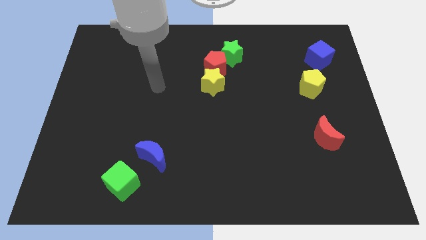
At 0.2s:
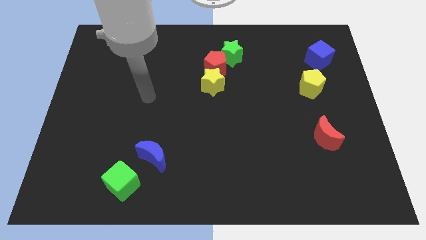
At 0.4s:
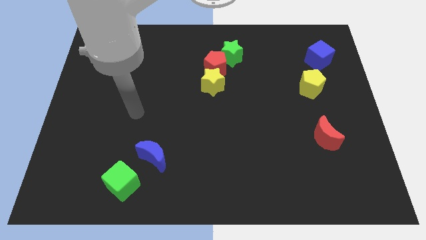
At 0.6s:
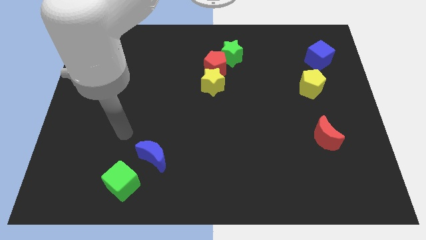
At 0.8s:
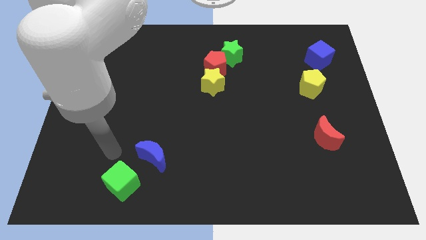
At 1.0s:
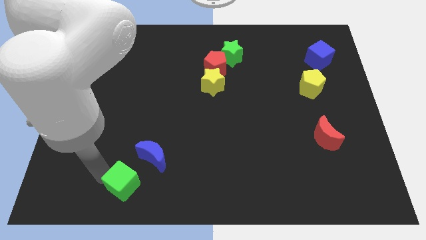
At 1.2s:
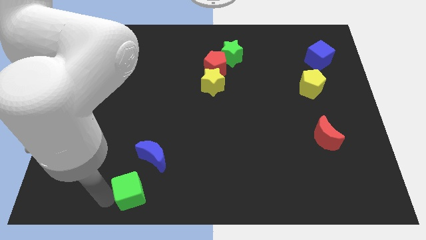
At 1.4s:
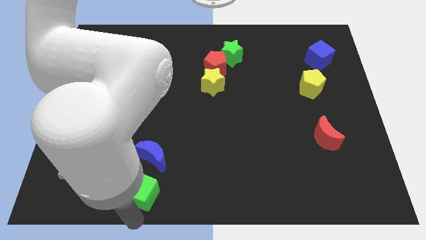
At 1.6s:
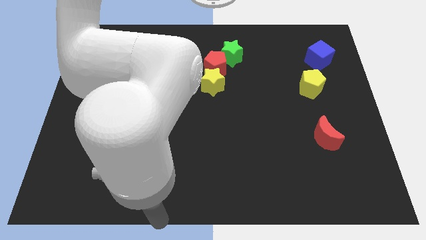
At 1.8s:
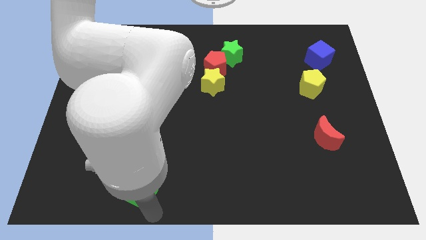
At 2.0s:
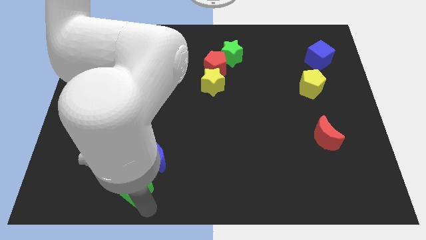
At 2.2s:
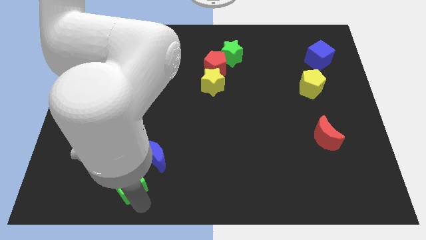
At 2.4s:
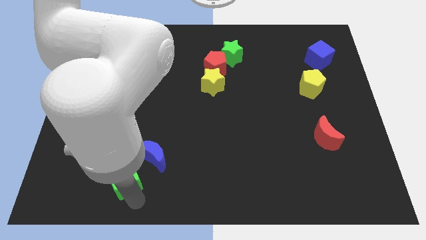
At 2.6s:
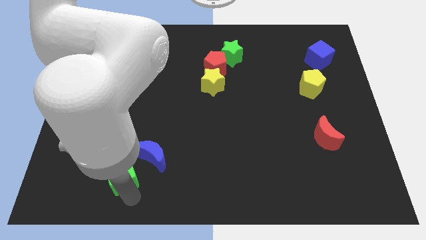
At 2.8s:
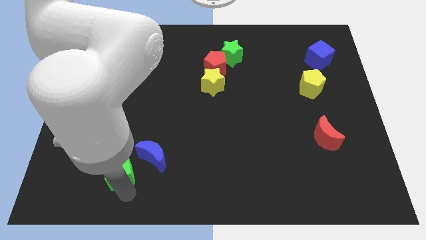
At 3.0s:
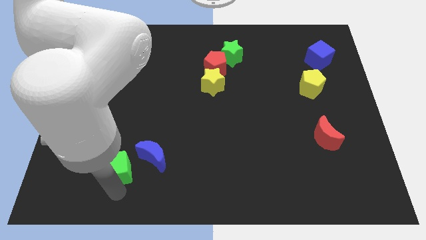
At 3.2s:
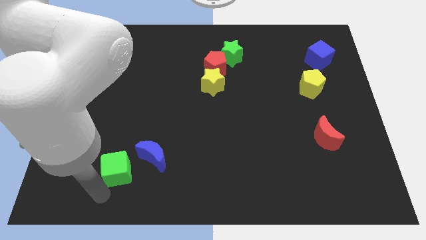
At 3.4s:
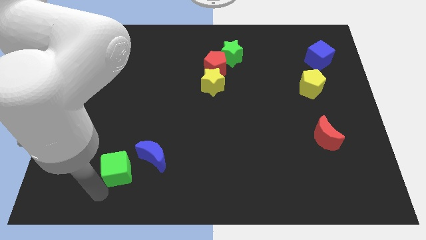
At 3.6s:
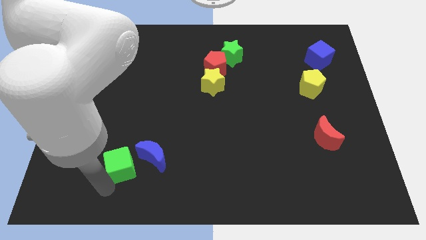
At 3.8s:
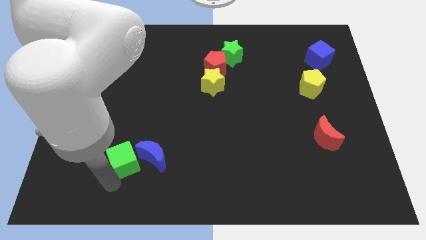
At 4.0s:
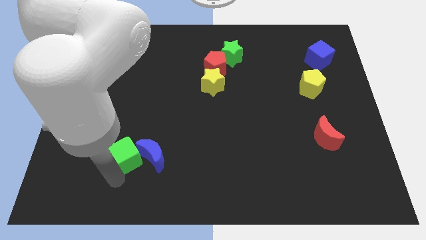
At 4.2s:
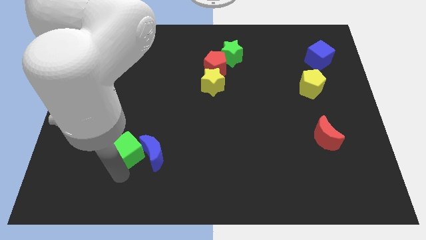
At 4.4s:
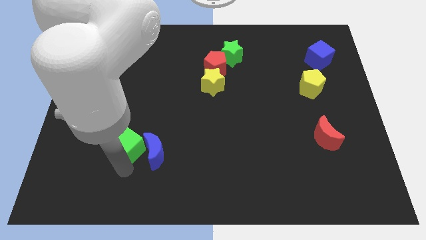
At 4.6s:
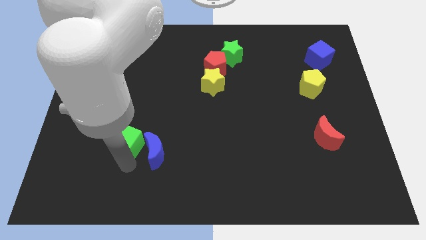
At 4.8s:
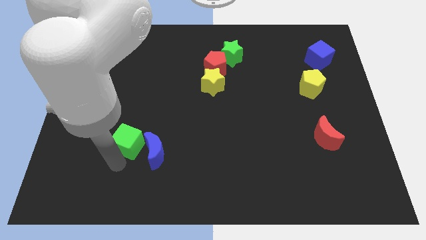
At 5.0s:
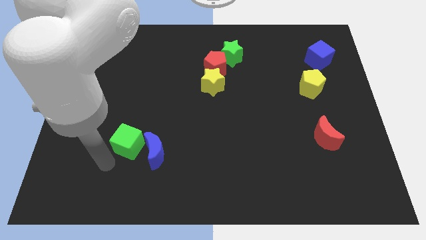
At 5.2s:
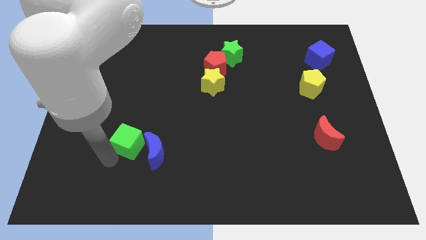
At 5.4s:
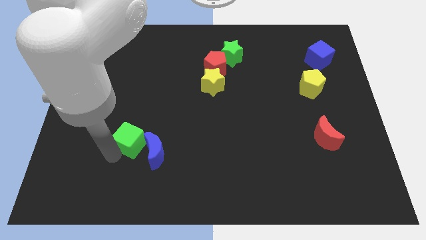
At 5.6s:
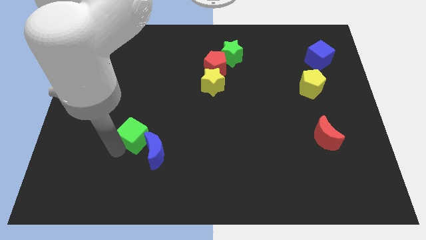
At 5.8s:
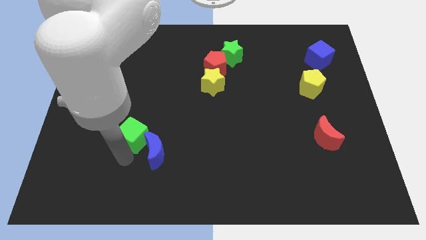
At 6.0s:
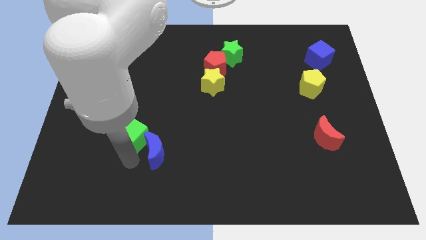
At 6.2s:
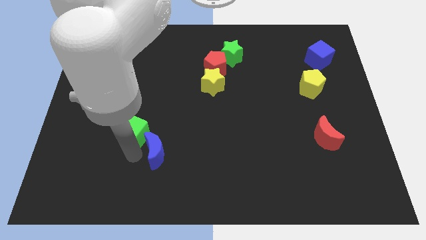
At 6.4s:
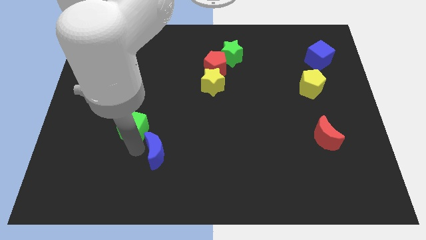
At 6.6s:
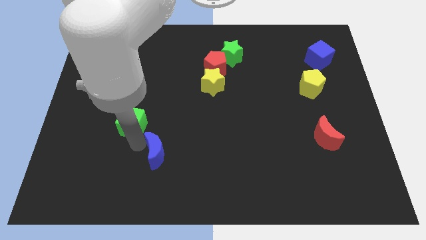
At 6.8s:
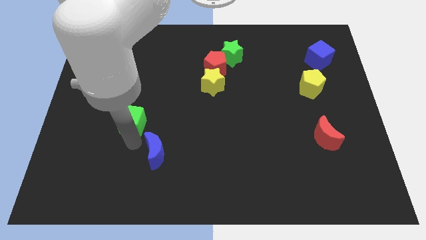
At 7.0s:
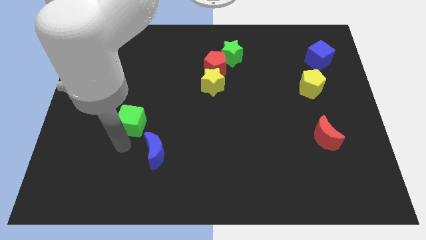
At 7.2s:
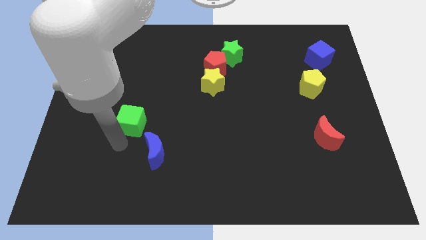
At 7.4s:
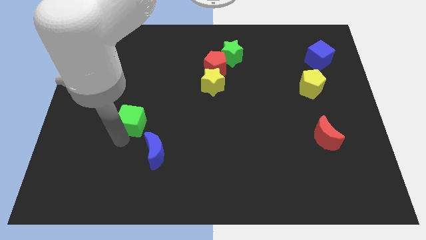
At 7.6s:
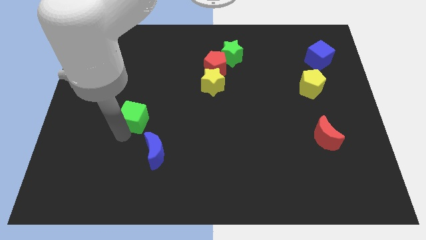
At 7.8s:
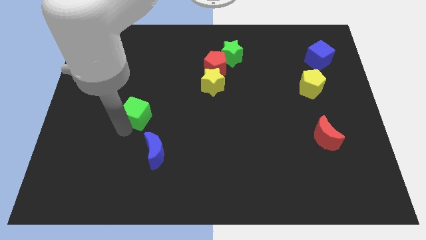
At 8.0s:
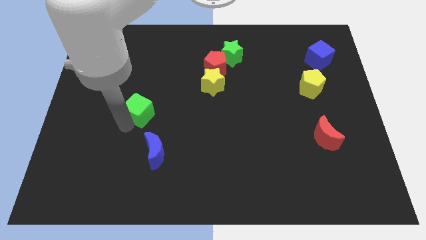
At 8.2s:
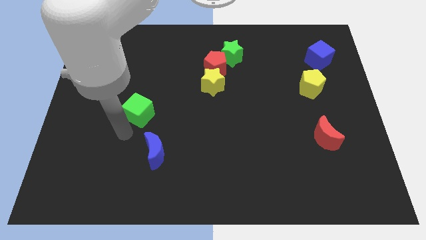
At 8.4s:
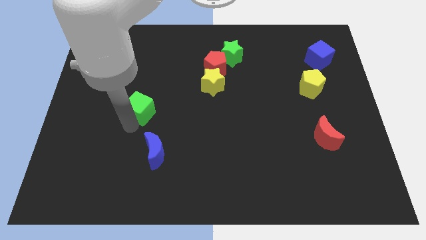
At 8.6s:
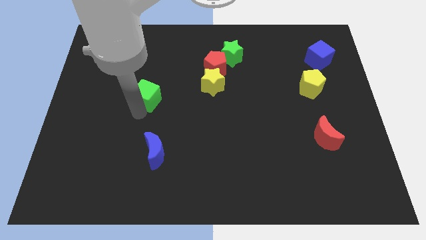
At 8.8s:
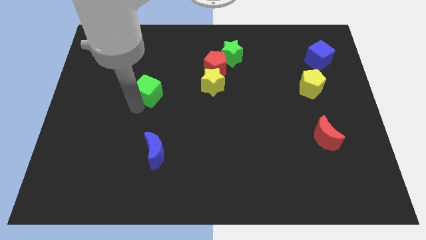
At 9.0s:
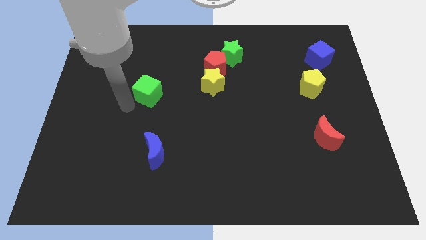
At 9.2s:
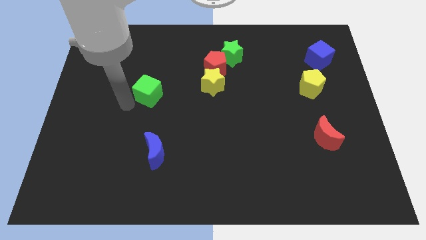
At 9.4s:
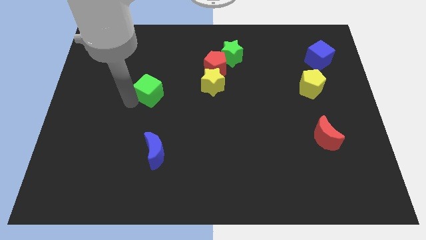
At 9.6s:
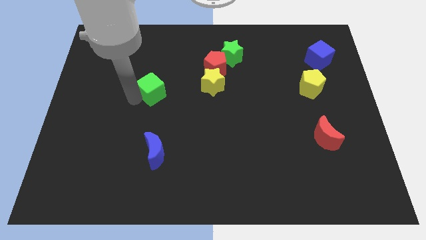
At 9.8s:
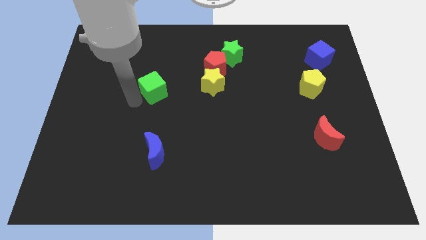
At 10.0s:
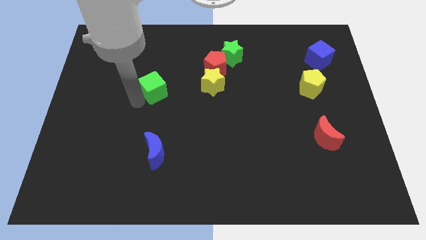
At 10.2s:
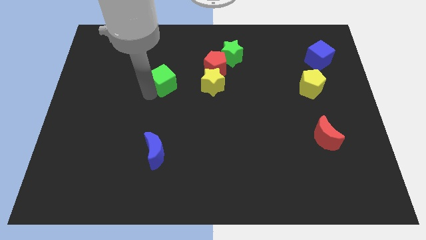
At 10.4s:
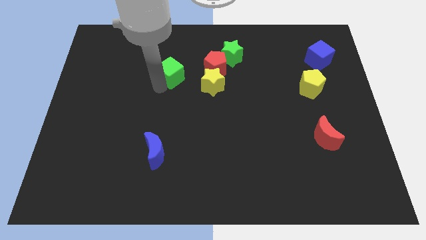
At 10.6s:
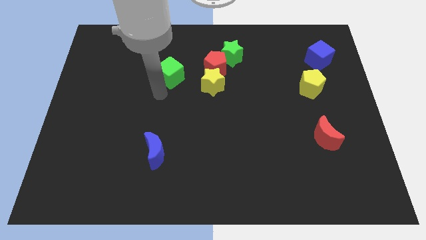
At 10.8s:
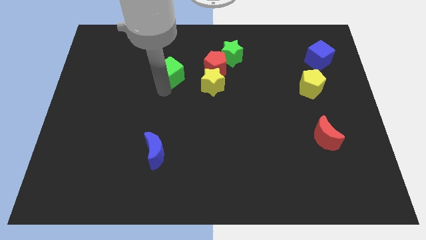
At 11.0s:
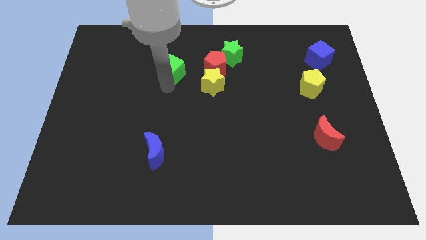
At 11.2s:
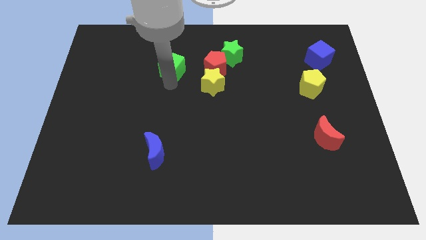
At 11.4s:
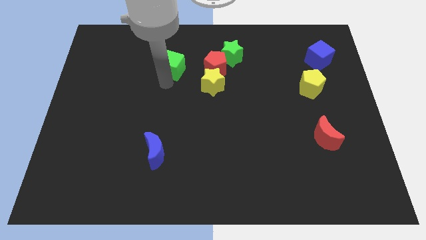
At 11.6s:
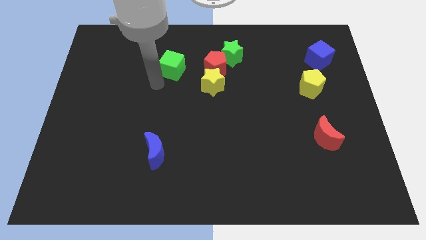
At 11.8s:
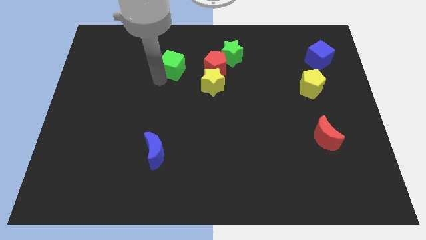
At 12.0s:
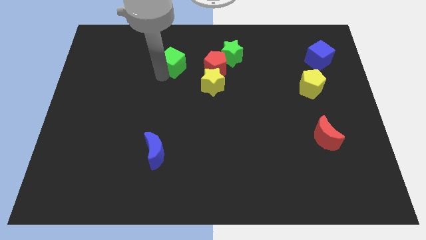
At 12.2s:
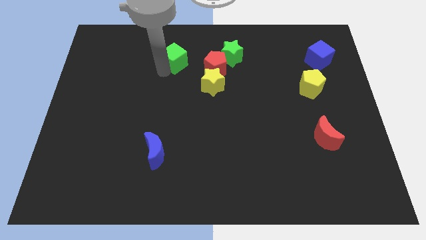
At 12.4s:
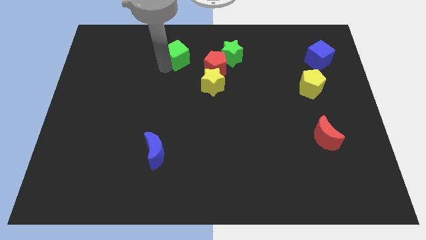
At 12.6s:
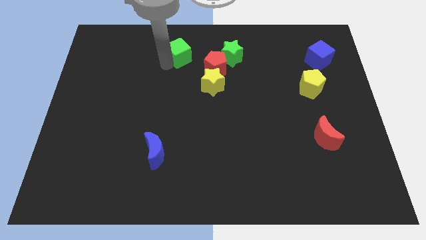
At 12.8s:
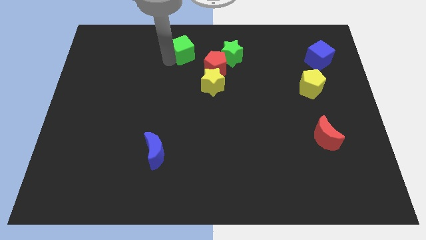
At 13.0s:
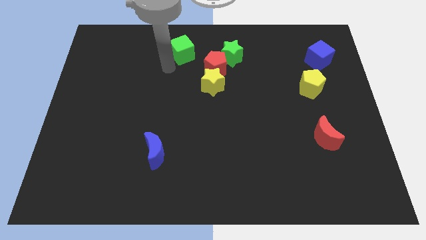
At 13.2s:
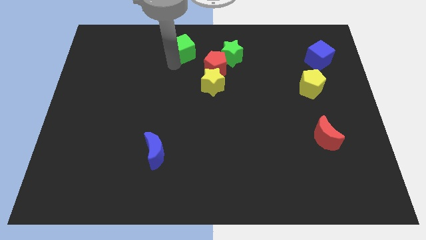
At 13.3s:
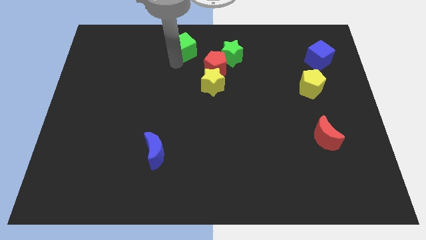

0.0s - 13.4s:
put the green cube to the top side
